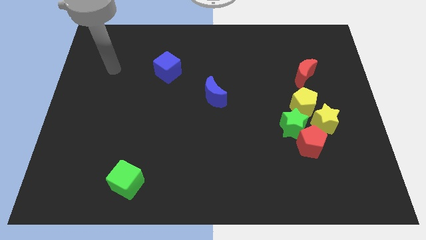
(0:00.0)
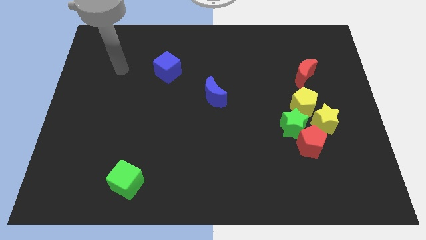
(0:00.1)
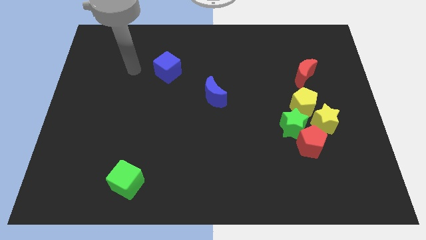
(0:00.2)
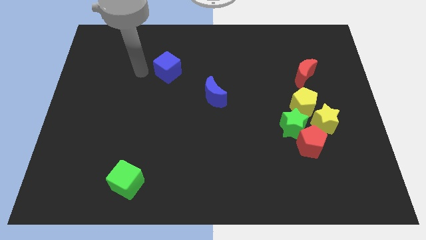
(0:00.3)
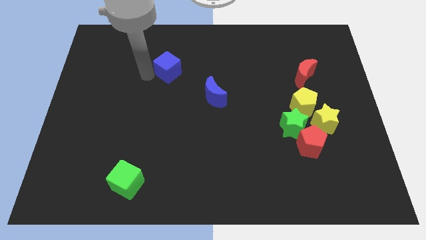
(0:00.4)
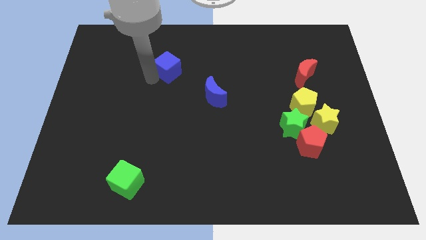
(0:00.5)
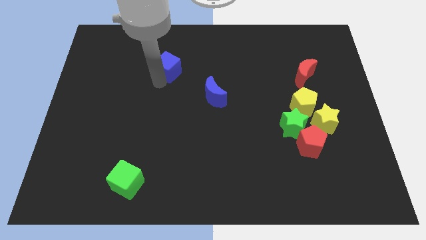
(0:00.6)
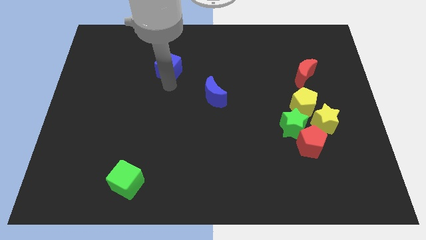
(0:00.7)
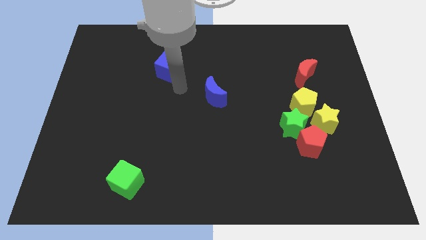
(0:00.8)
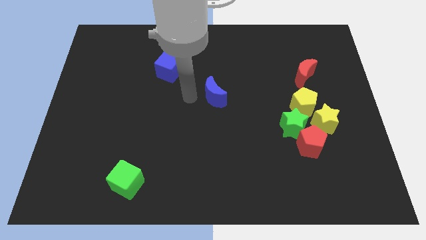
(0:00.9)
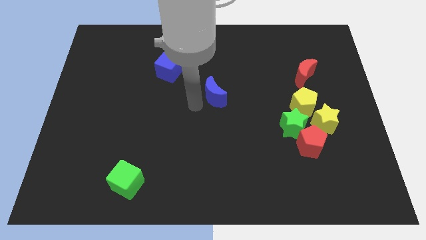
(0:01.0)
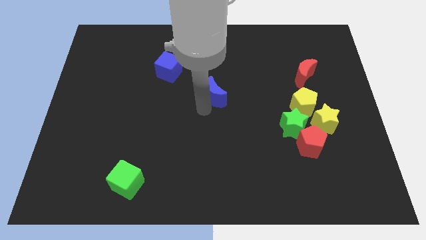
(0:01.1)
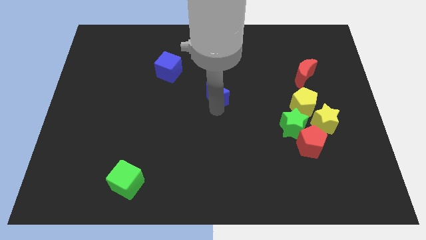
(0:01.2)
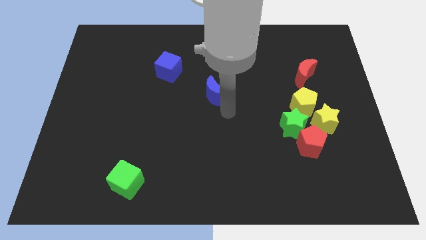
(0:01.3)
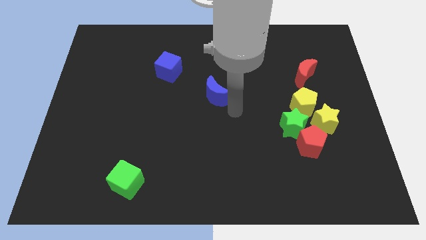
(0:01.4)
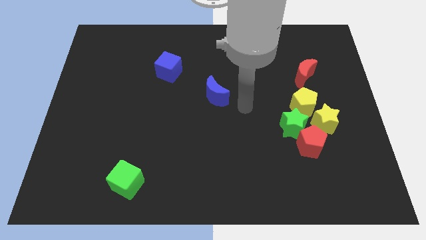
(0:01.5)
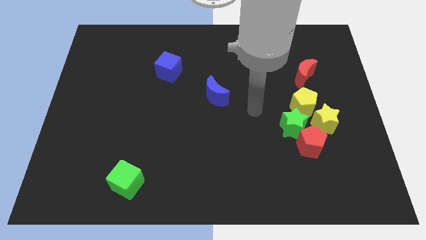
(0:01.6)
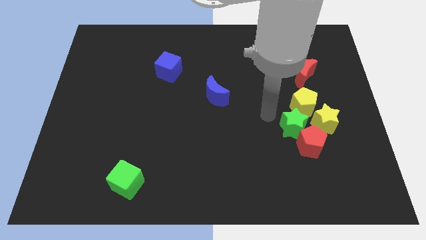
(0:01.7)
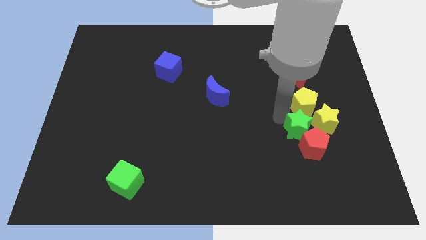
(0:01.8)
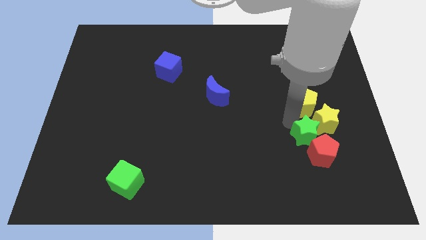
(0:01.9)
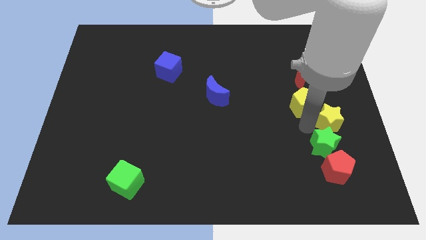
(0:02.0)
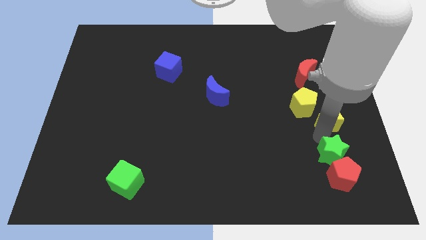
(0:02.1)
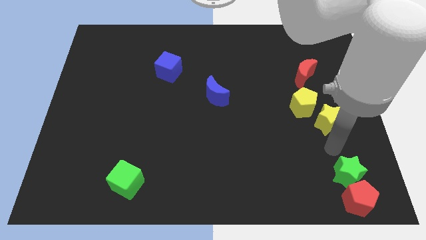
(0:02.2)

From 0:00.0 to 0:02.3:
pull the red pentagon apart from the green star and yellow star

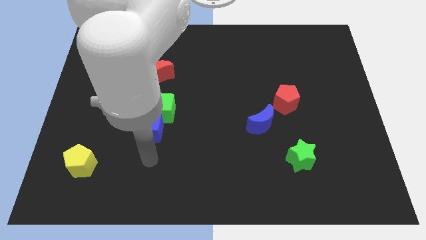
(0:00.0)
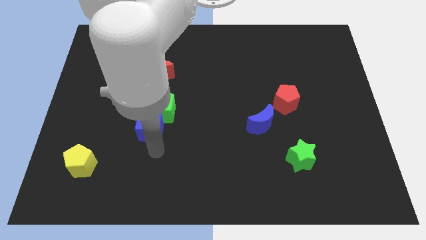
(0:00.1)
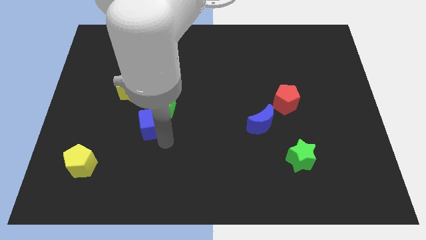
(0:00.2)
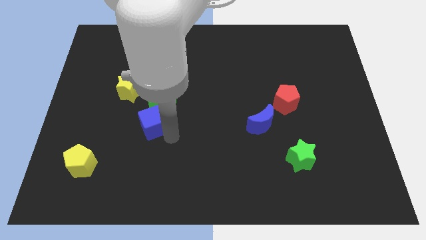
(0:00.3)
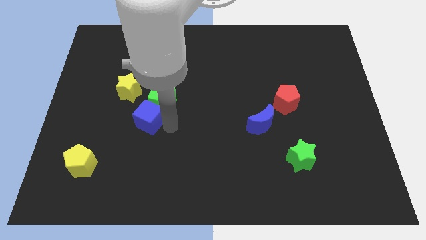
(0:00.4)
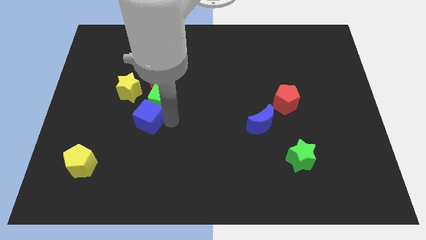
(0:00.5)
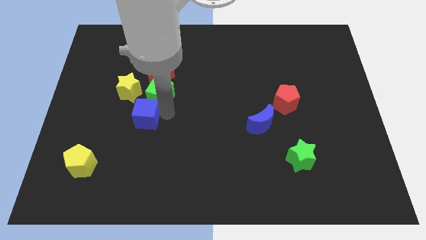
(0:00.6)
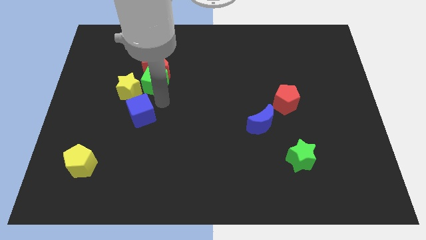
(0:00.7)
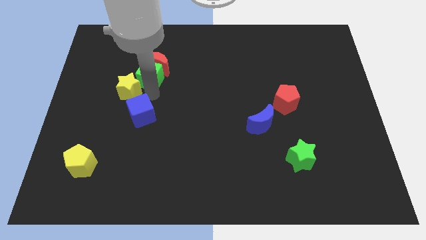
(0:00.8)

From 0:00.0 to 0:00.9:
pull the blue cube apart from the green cube

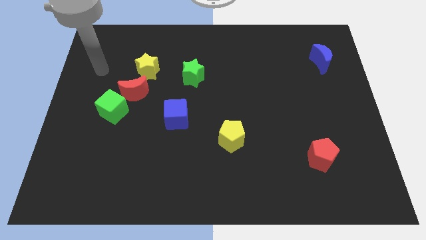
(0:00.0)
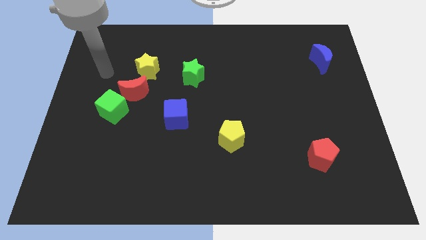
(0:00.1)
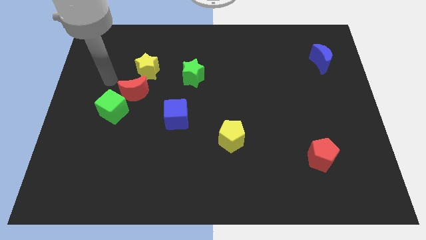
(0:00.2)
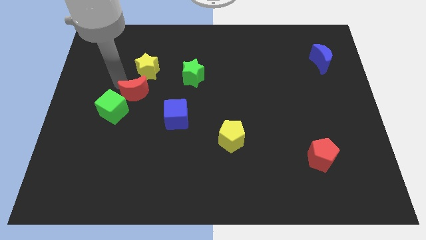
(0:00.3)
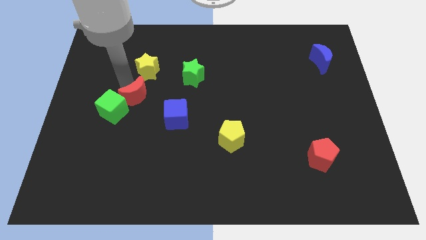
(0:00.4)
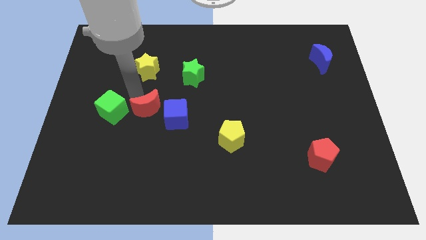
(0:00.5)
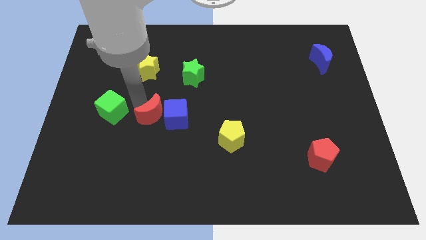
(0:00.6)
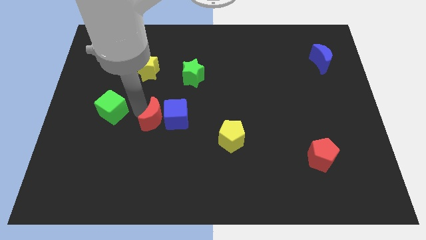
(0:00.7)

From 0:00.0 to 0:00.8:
move the green cube away from the red moon

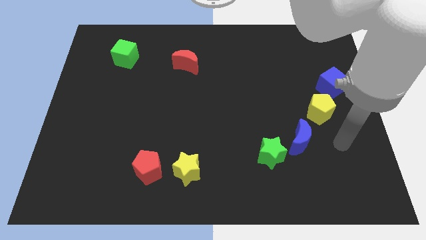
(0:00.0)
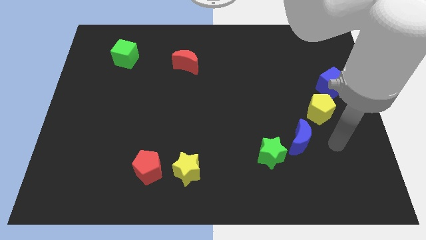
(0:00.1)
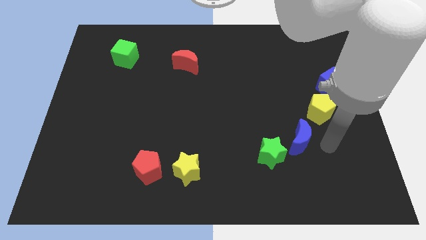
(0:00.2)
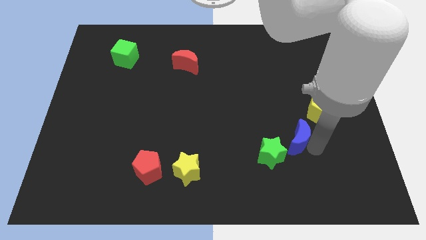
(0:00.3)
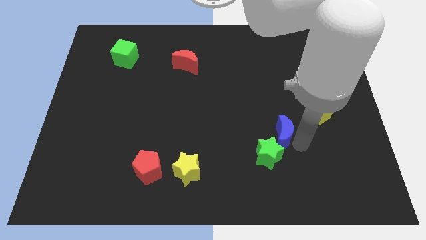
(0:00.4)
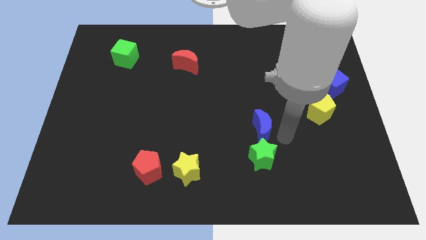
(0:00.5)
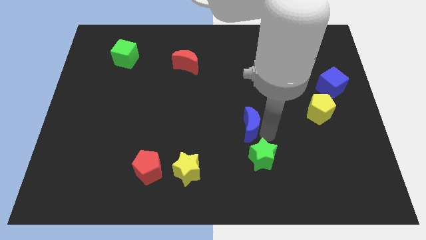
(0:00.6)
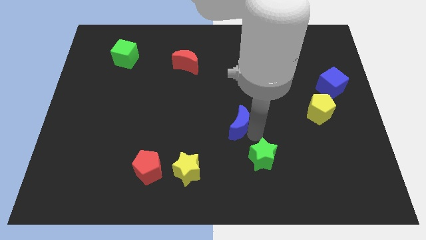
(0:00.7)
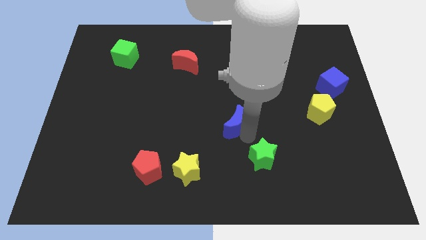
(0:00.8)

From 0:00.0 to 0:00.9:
separate the green star from the blue moon

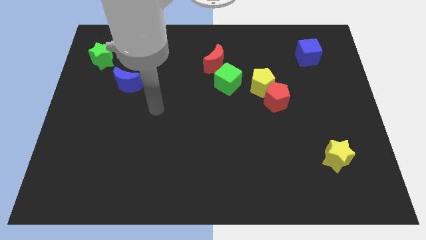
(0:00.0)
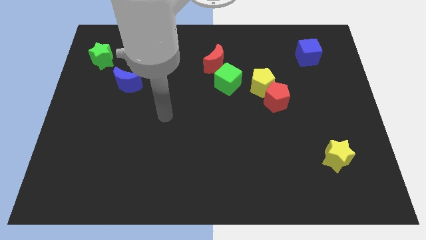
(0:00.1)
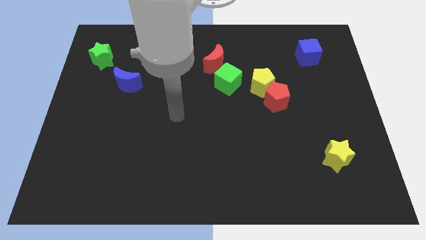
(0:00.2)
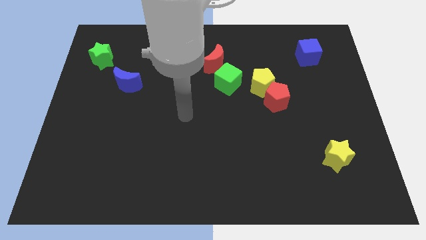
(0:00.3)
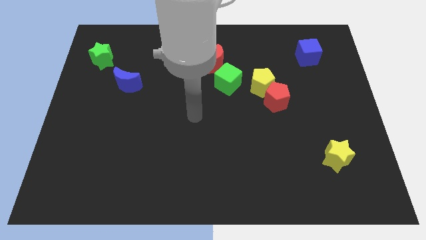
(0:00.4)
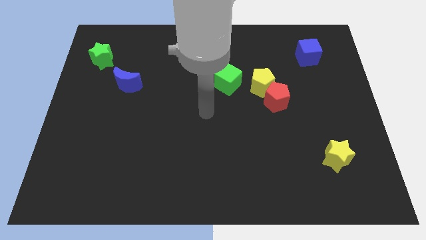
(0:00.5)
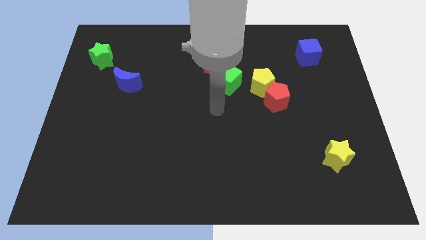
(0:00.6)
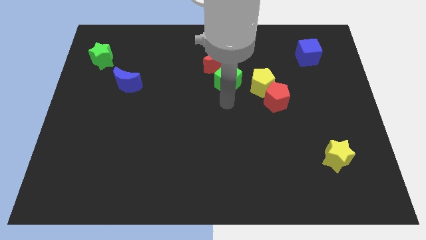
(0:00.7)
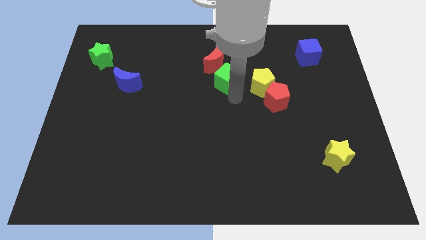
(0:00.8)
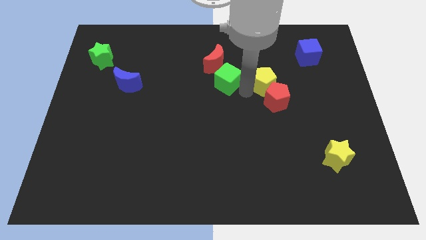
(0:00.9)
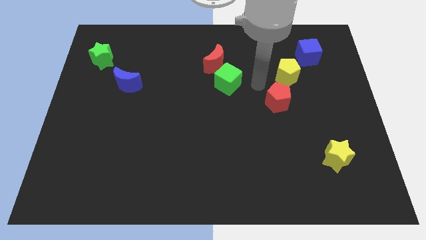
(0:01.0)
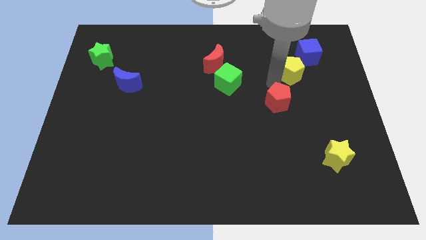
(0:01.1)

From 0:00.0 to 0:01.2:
separate the red pentagon from the yellow pentagon

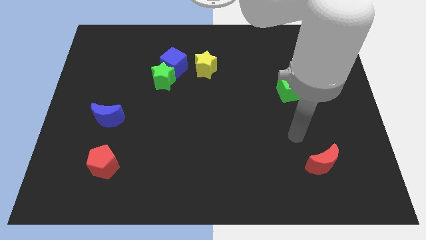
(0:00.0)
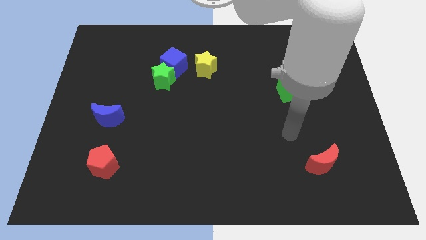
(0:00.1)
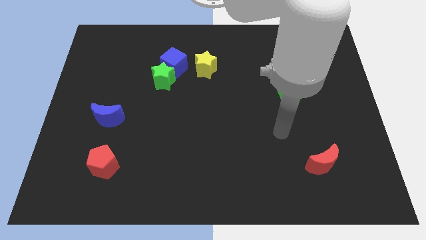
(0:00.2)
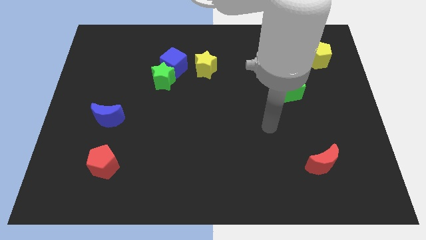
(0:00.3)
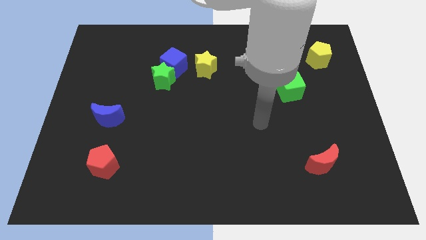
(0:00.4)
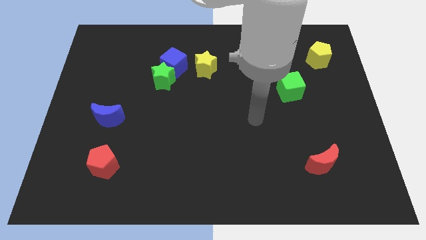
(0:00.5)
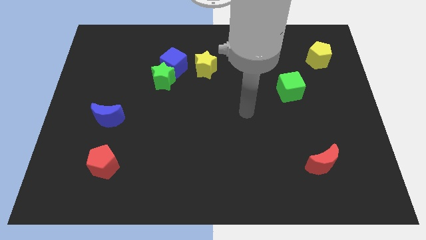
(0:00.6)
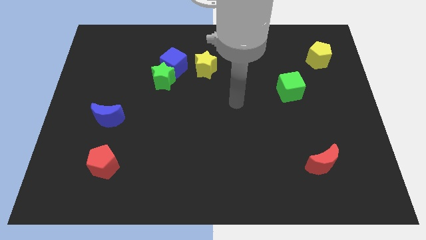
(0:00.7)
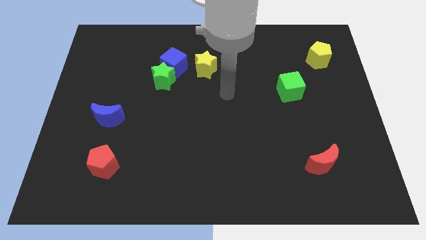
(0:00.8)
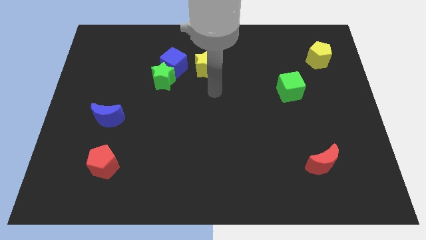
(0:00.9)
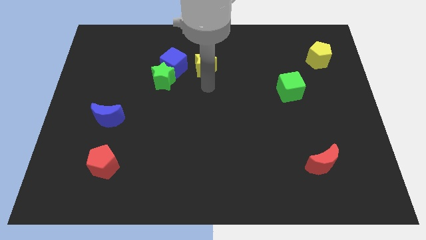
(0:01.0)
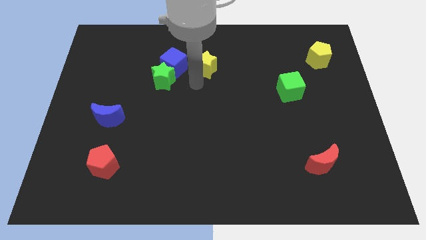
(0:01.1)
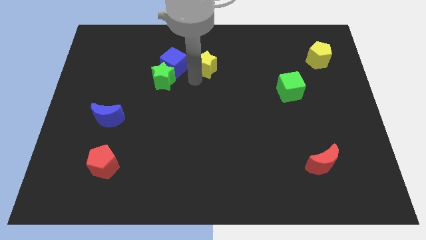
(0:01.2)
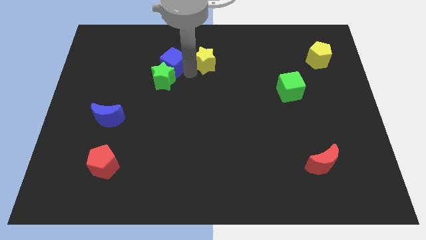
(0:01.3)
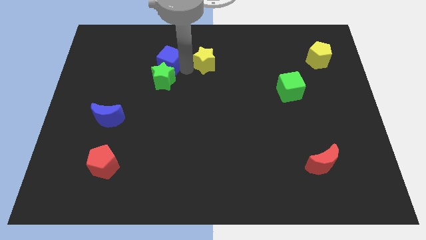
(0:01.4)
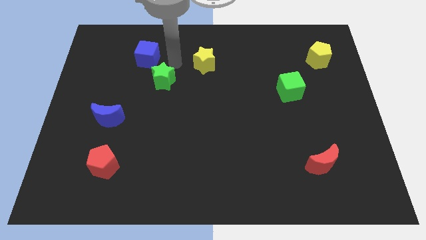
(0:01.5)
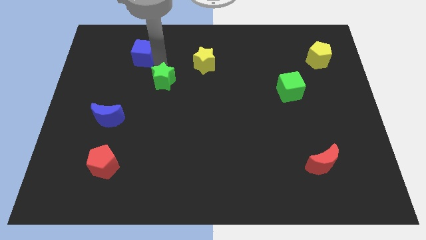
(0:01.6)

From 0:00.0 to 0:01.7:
separate the green star from the blue cube

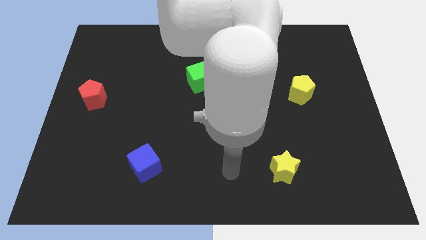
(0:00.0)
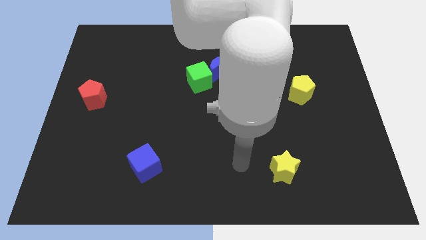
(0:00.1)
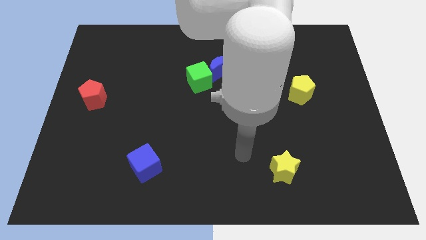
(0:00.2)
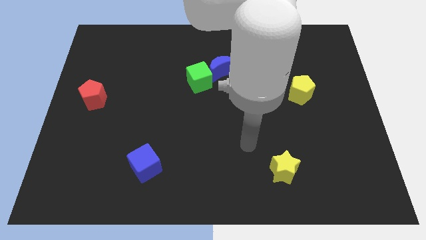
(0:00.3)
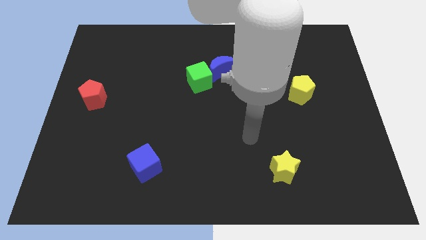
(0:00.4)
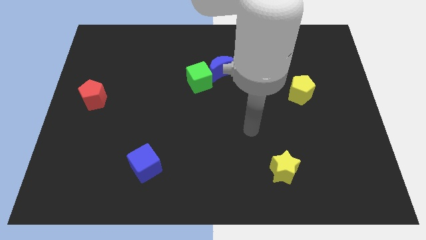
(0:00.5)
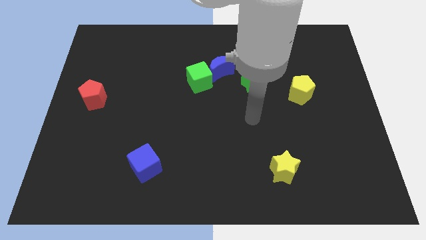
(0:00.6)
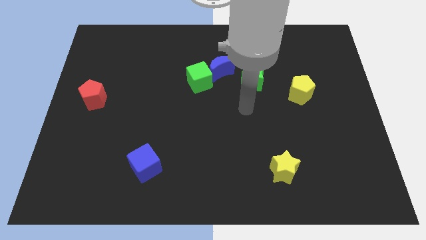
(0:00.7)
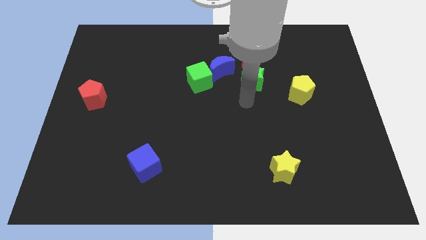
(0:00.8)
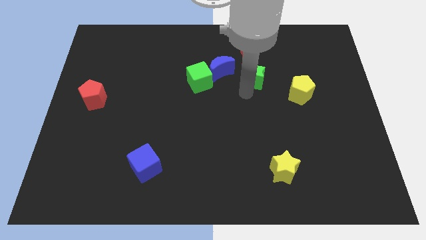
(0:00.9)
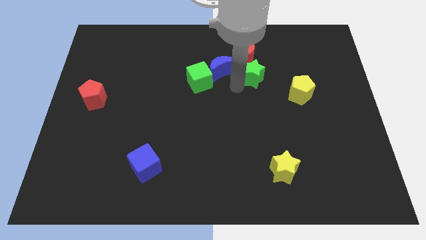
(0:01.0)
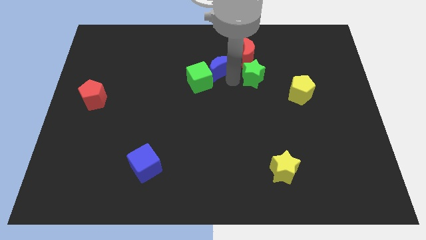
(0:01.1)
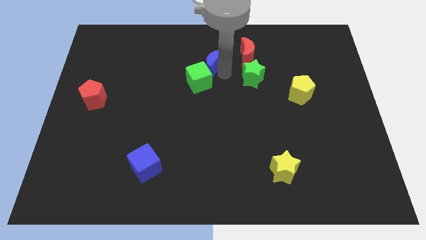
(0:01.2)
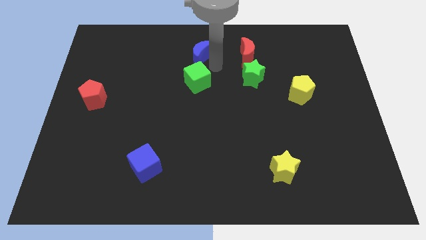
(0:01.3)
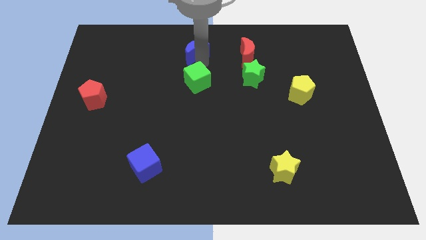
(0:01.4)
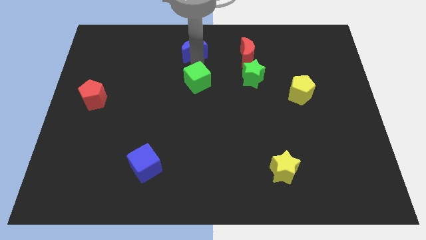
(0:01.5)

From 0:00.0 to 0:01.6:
move the green cube away from the blue moon
